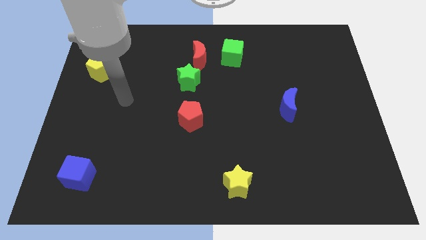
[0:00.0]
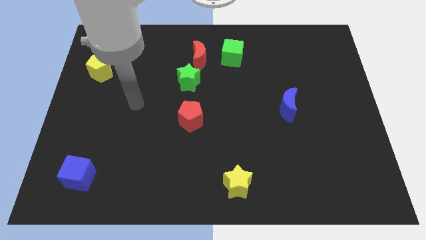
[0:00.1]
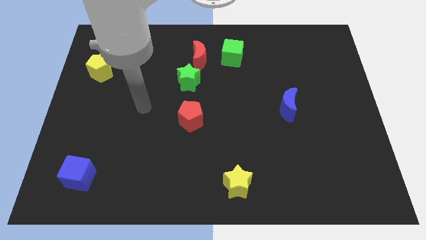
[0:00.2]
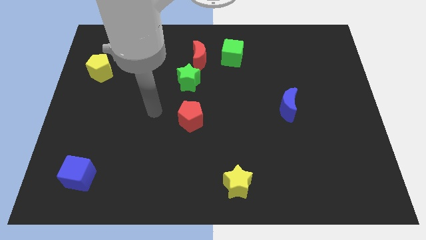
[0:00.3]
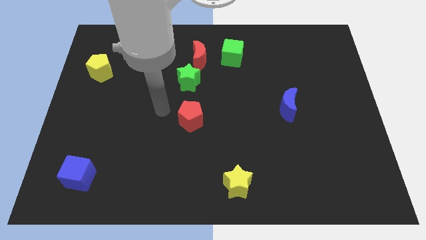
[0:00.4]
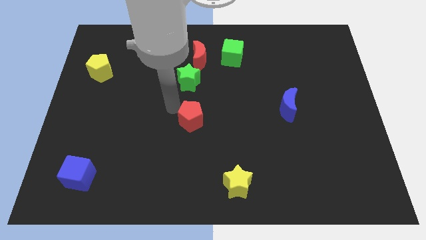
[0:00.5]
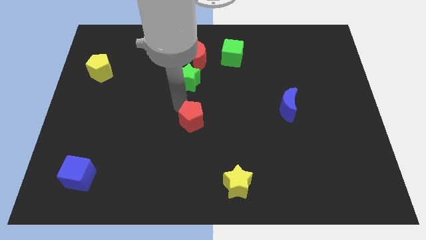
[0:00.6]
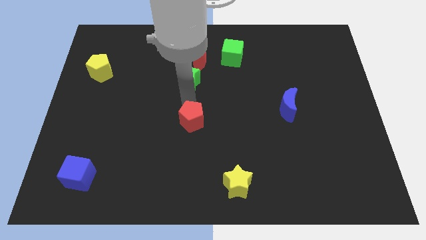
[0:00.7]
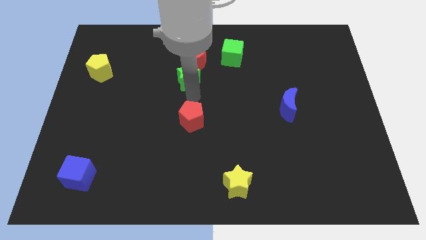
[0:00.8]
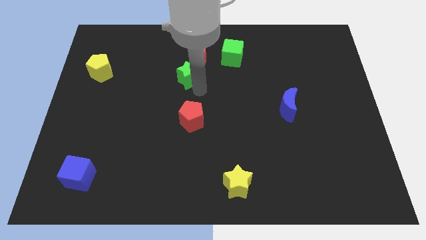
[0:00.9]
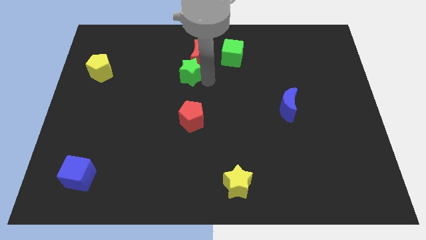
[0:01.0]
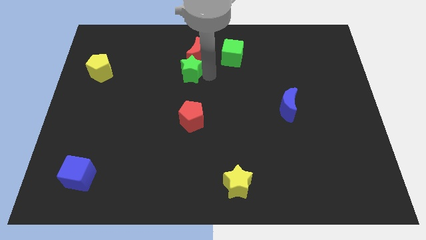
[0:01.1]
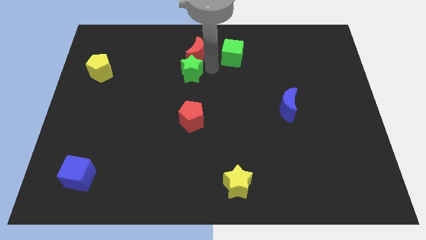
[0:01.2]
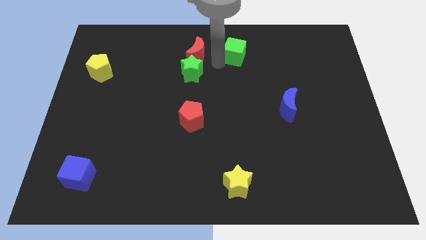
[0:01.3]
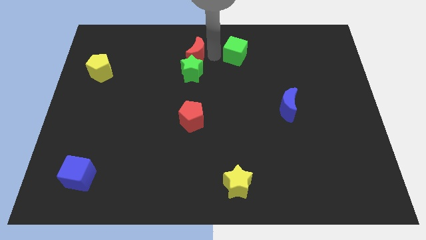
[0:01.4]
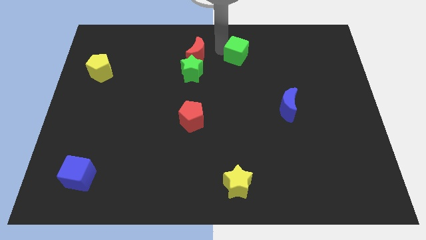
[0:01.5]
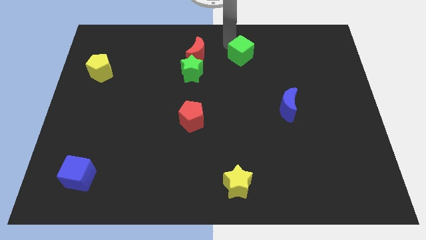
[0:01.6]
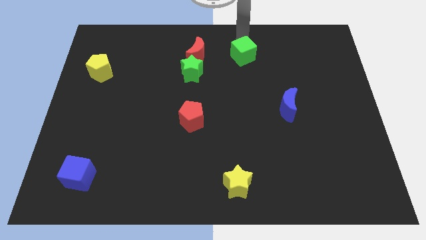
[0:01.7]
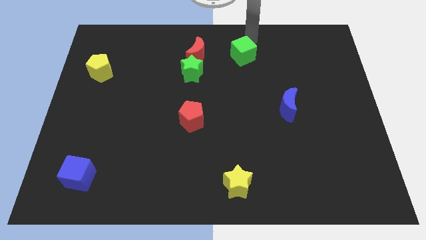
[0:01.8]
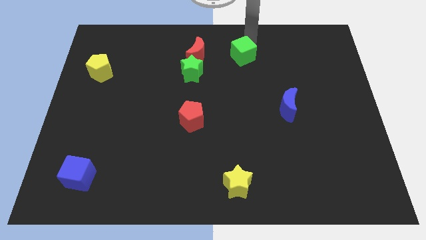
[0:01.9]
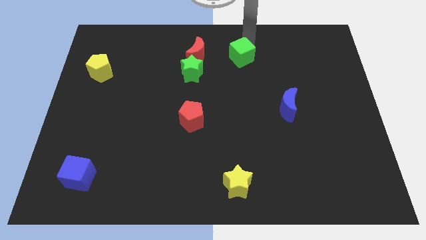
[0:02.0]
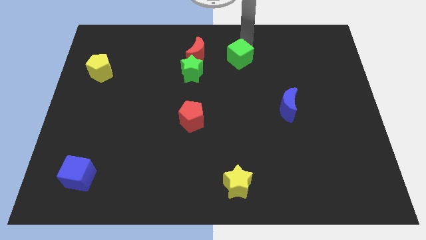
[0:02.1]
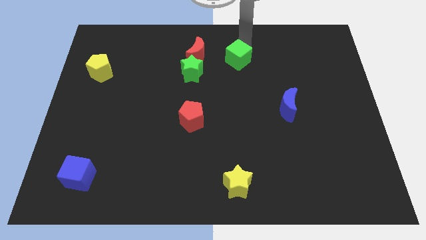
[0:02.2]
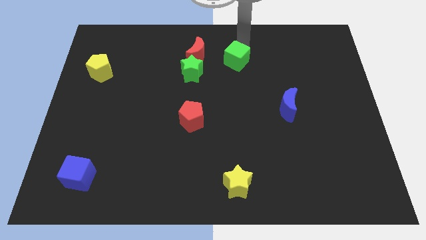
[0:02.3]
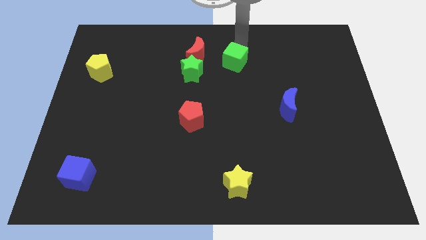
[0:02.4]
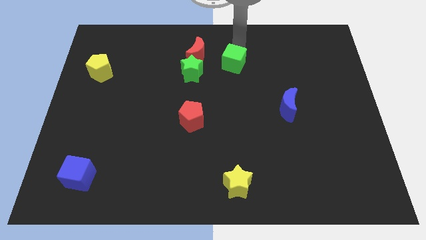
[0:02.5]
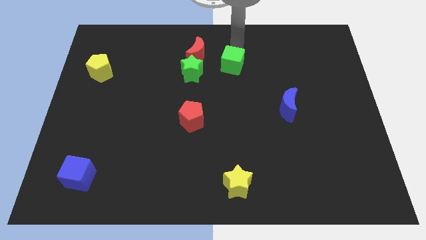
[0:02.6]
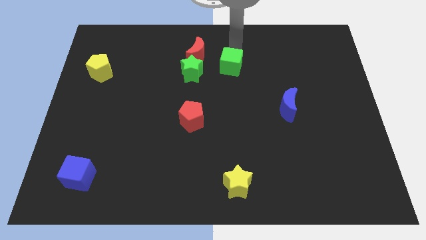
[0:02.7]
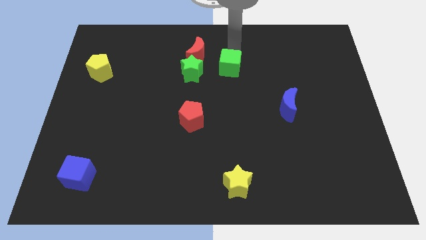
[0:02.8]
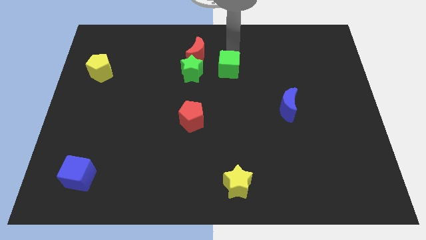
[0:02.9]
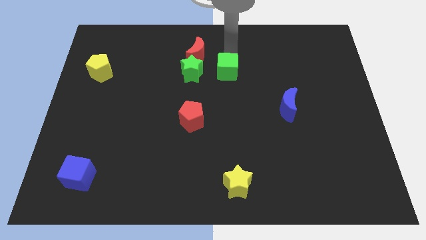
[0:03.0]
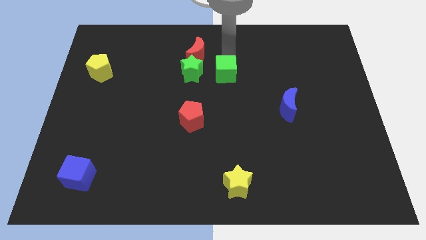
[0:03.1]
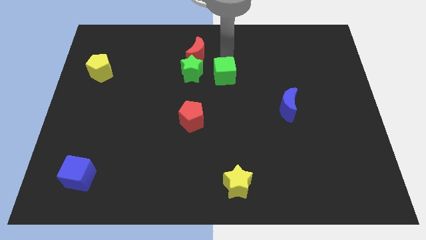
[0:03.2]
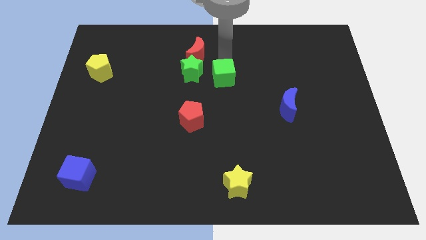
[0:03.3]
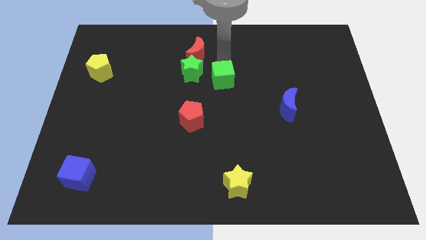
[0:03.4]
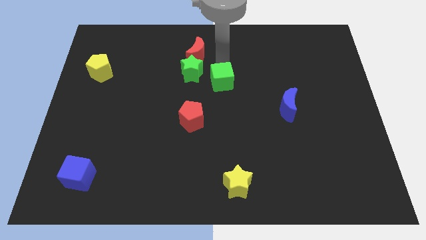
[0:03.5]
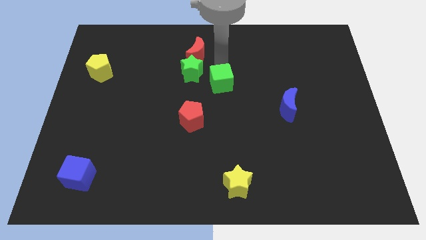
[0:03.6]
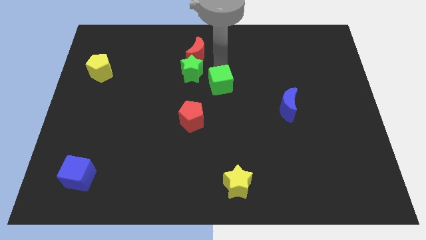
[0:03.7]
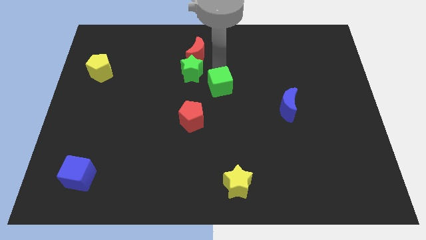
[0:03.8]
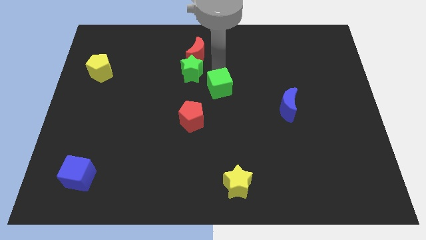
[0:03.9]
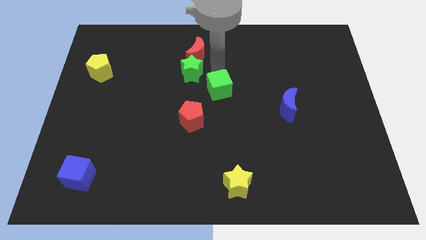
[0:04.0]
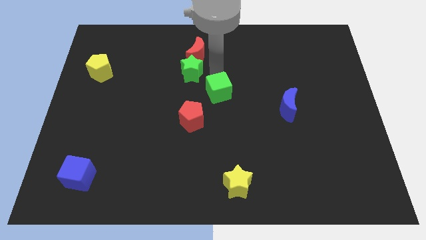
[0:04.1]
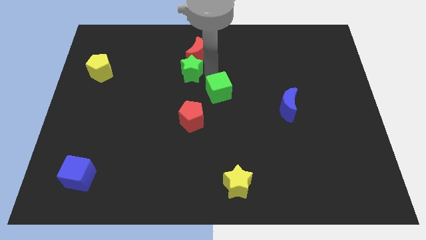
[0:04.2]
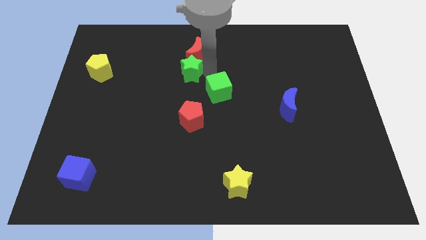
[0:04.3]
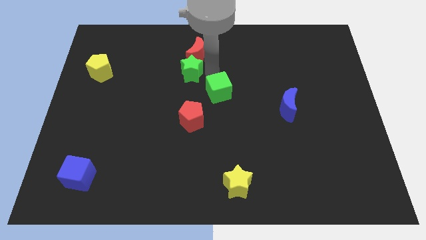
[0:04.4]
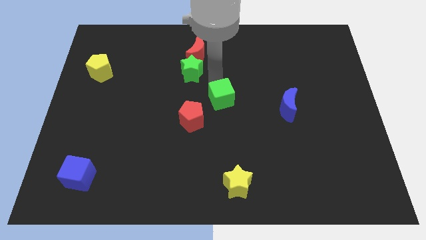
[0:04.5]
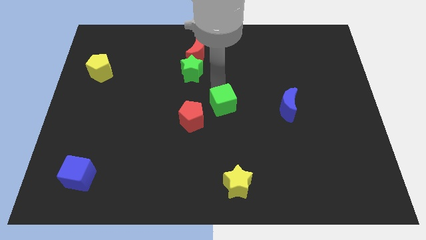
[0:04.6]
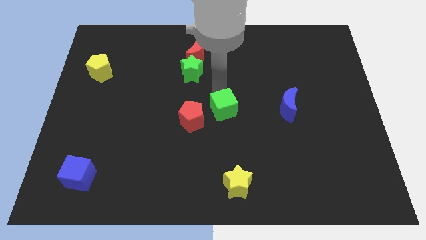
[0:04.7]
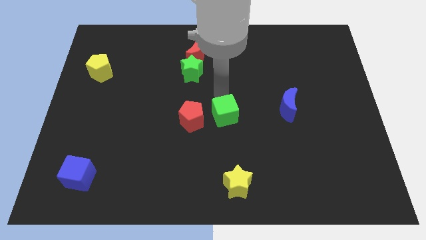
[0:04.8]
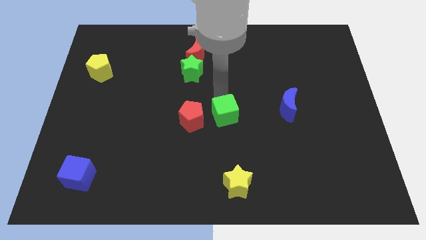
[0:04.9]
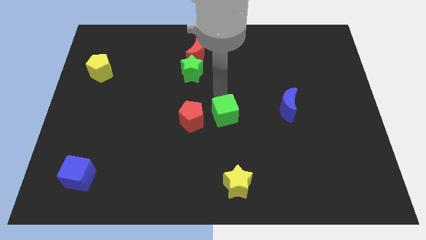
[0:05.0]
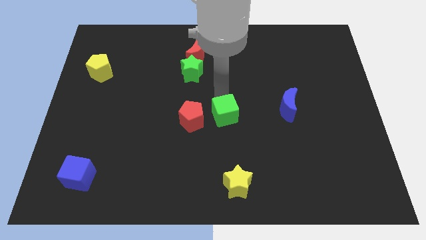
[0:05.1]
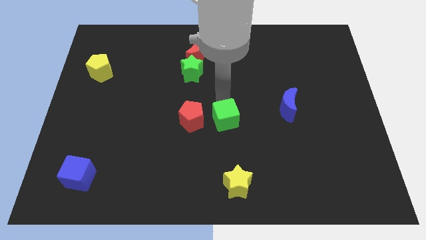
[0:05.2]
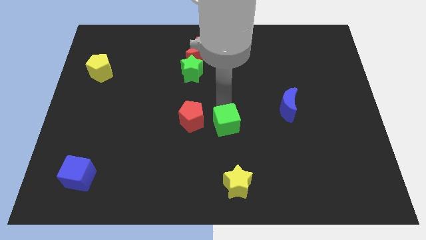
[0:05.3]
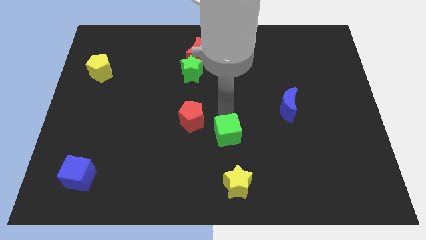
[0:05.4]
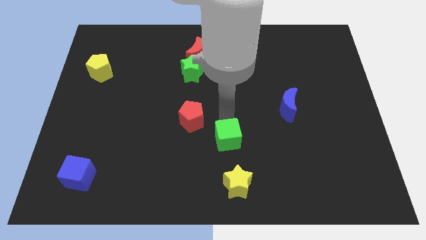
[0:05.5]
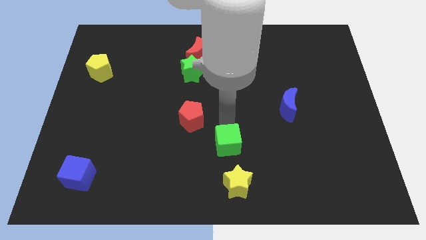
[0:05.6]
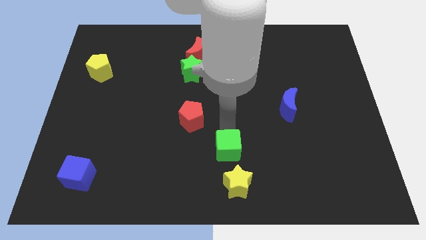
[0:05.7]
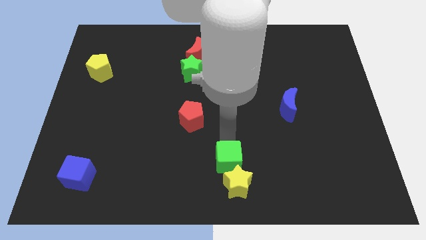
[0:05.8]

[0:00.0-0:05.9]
move the green cube close to the yellow star
